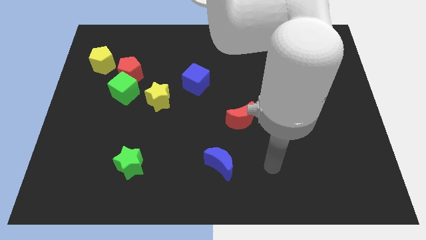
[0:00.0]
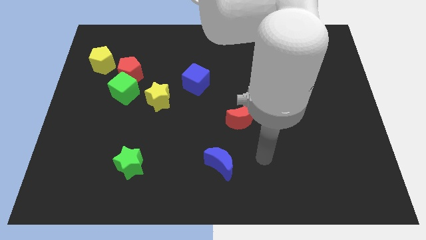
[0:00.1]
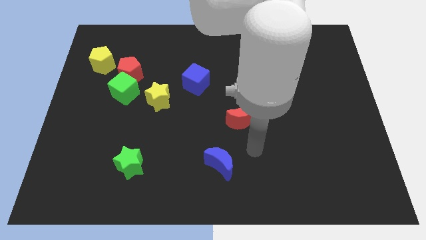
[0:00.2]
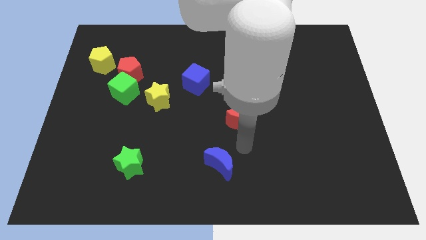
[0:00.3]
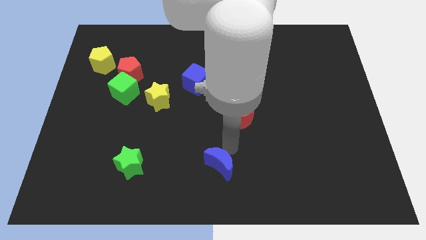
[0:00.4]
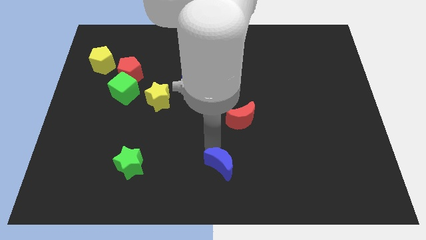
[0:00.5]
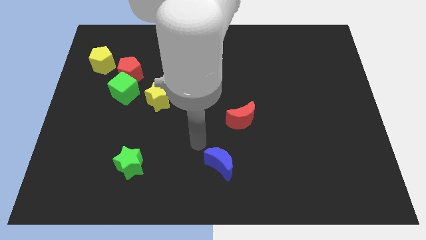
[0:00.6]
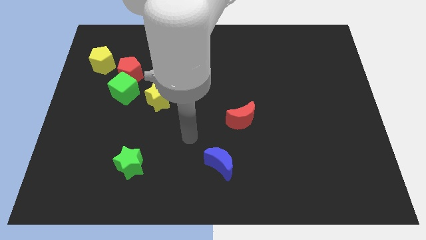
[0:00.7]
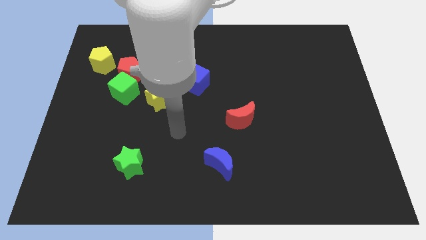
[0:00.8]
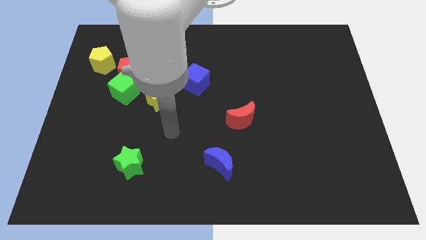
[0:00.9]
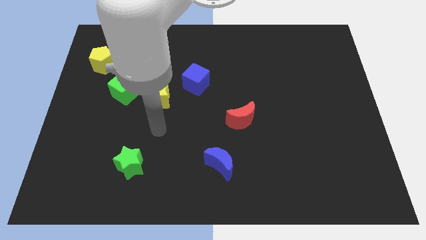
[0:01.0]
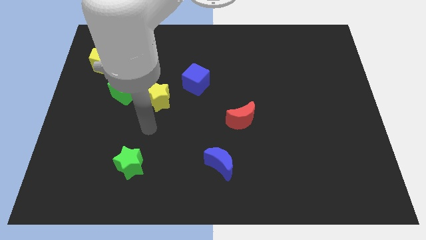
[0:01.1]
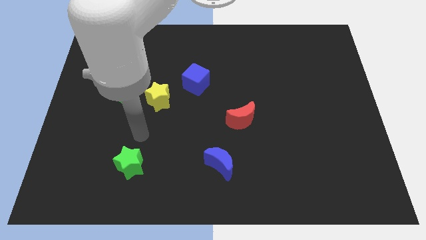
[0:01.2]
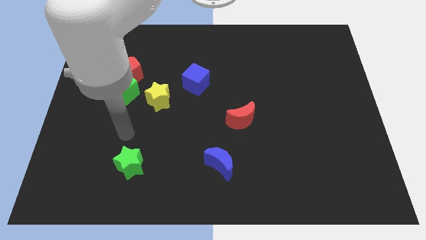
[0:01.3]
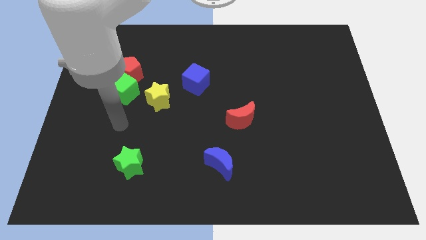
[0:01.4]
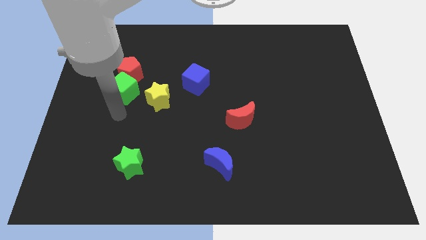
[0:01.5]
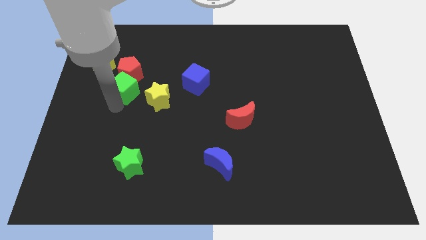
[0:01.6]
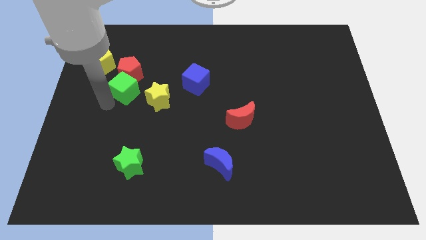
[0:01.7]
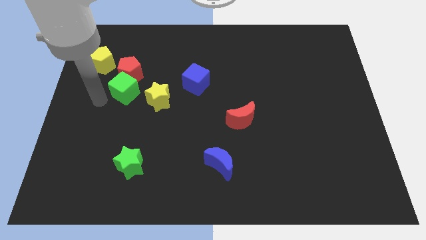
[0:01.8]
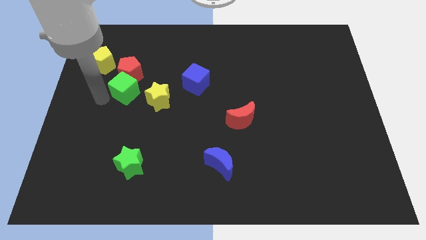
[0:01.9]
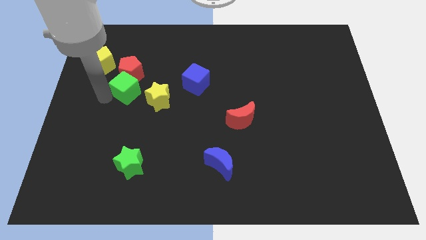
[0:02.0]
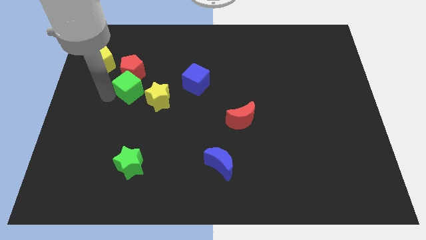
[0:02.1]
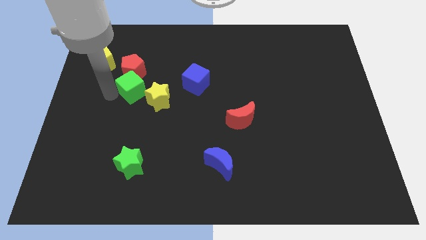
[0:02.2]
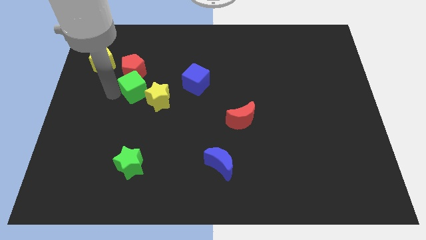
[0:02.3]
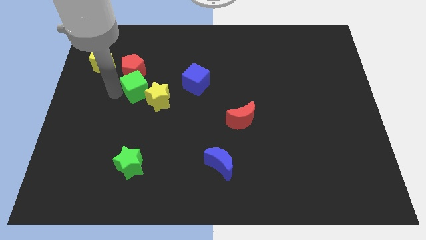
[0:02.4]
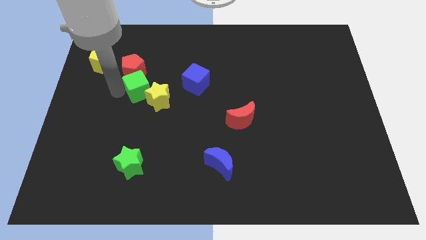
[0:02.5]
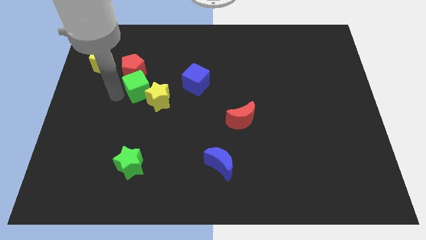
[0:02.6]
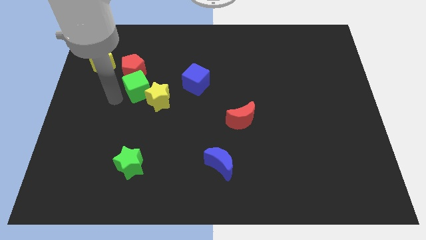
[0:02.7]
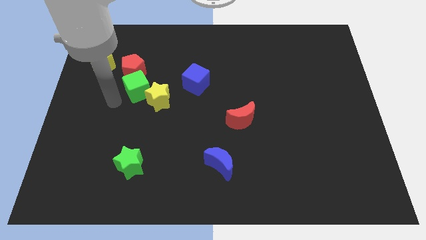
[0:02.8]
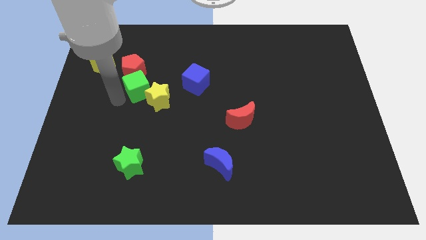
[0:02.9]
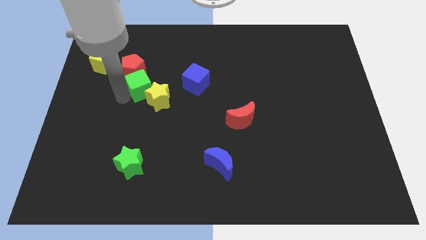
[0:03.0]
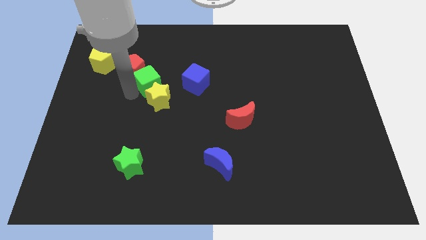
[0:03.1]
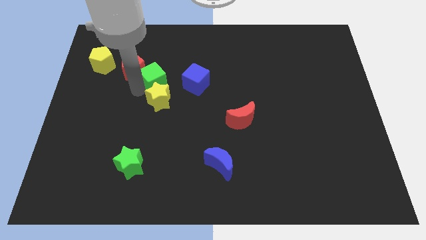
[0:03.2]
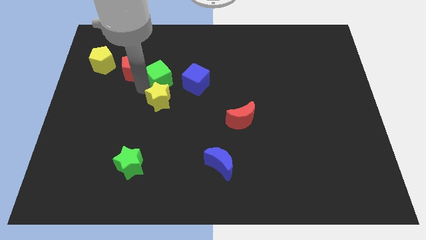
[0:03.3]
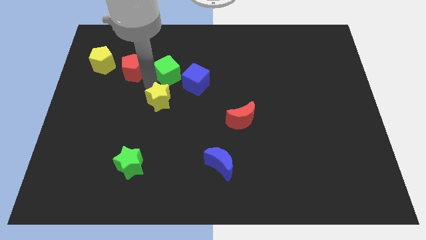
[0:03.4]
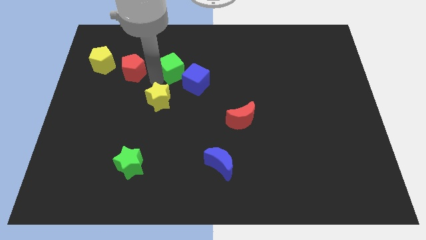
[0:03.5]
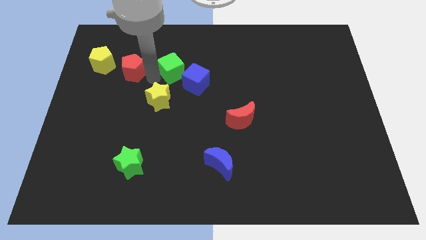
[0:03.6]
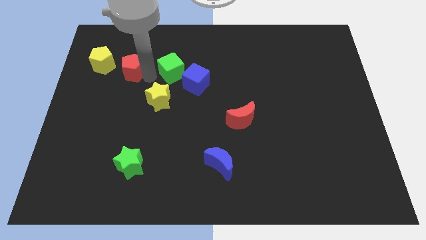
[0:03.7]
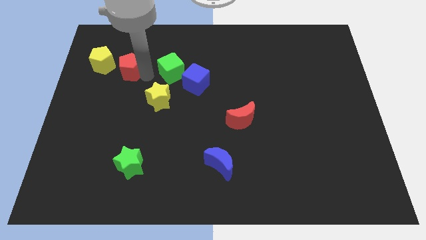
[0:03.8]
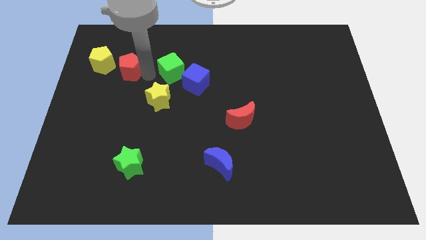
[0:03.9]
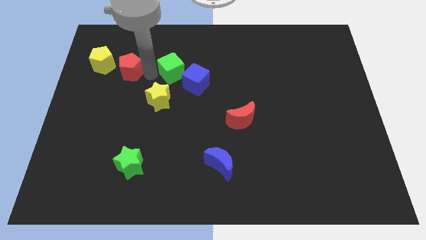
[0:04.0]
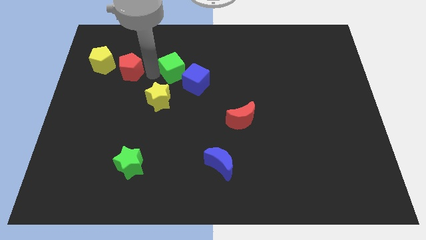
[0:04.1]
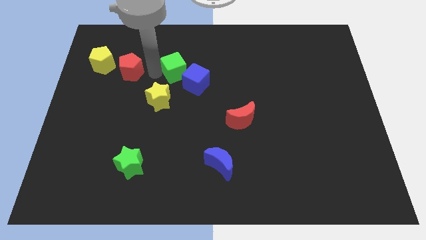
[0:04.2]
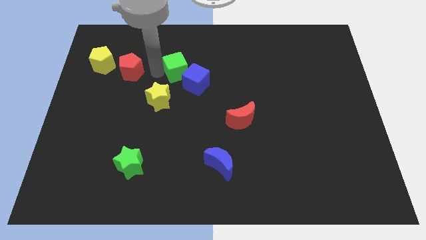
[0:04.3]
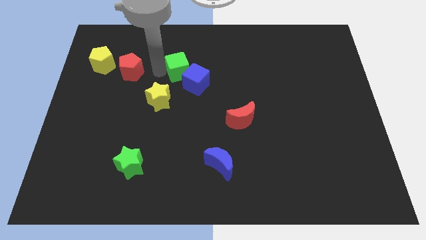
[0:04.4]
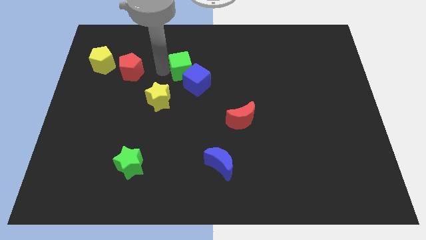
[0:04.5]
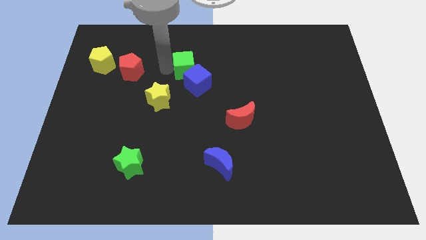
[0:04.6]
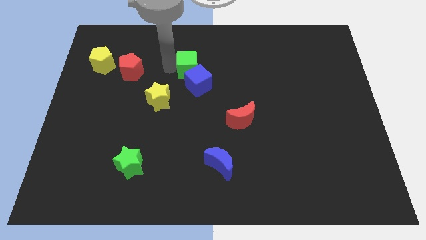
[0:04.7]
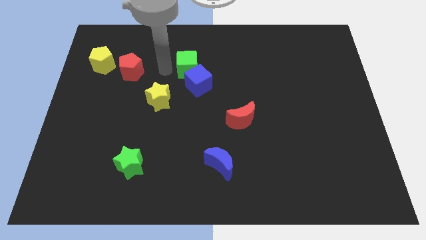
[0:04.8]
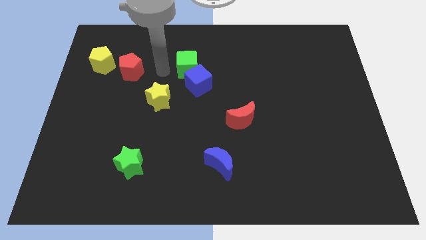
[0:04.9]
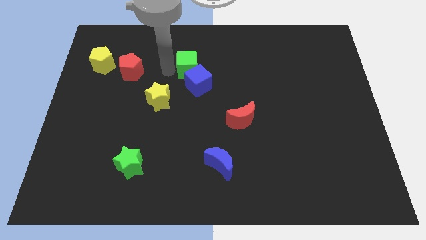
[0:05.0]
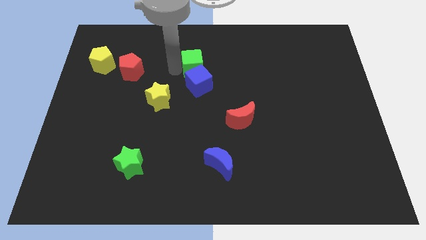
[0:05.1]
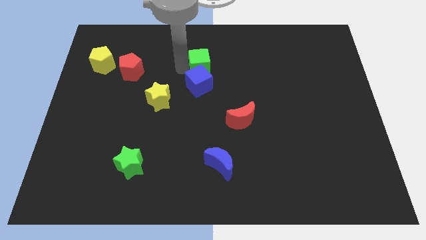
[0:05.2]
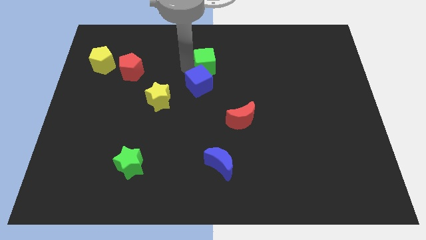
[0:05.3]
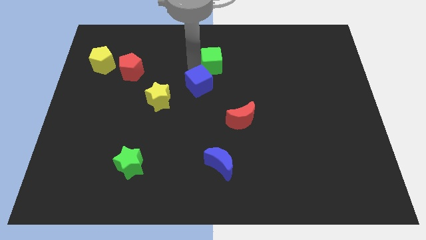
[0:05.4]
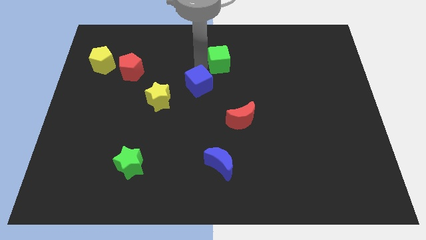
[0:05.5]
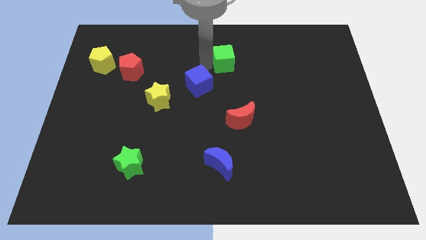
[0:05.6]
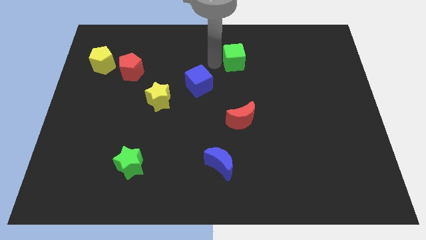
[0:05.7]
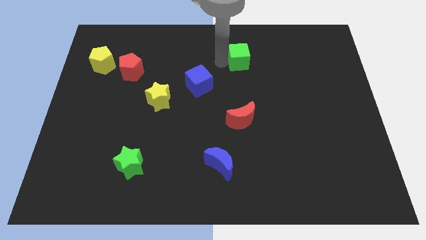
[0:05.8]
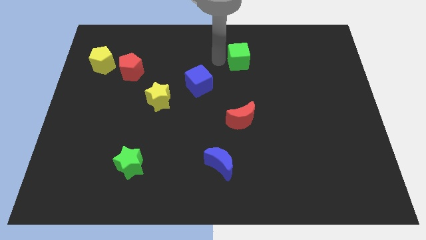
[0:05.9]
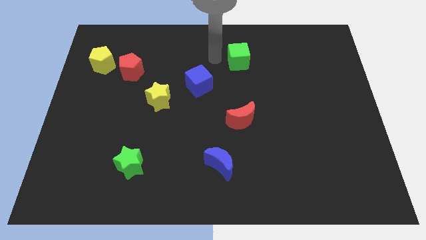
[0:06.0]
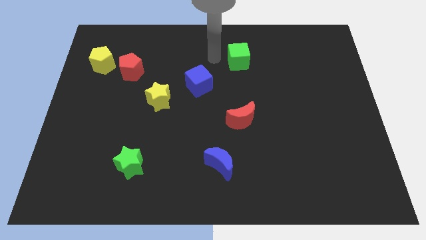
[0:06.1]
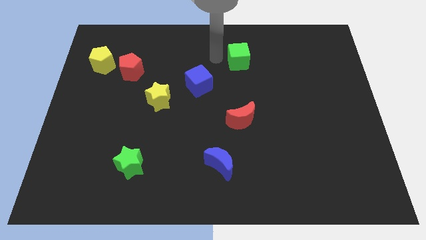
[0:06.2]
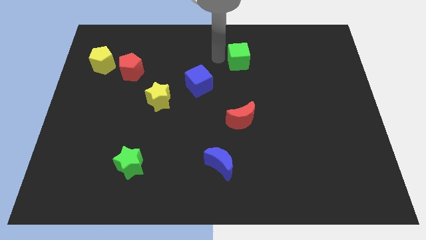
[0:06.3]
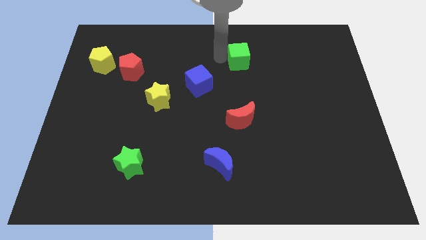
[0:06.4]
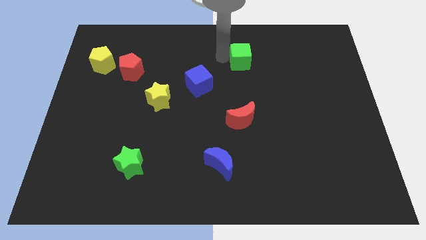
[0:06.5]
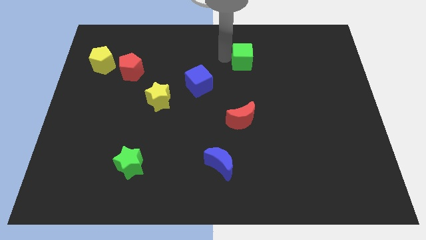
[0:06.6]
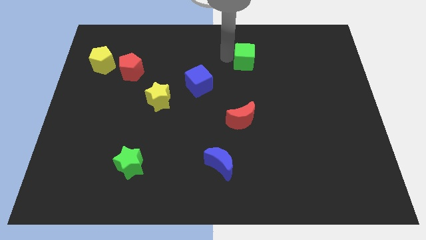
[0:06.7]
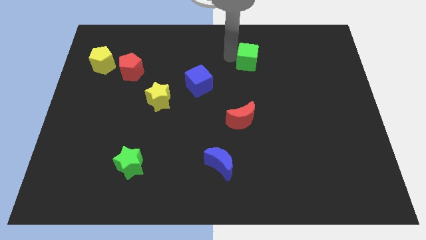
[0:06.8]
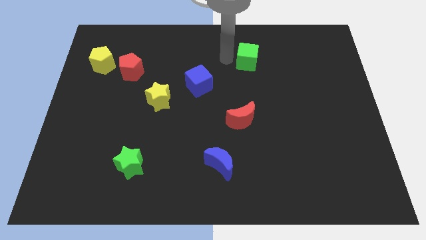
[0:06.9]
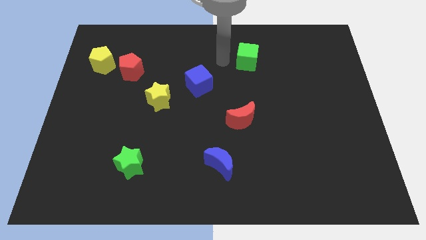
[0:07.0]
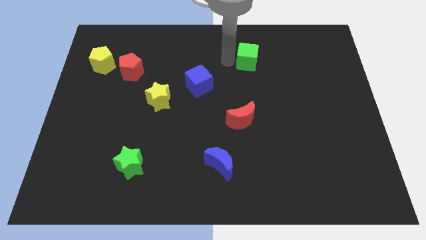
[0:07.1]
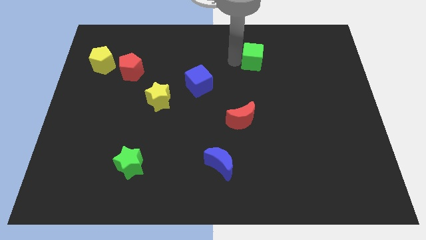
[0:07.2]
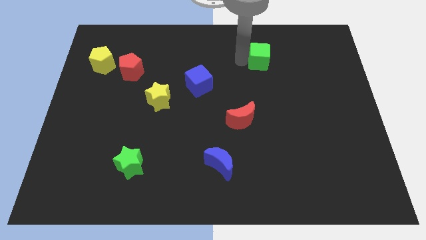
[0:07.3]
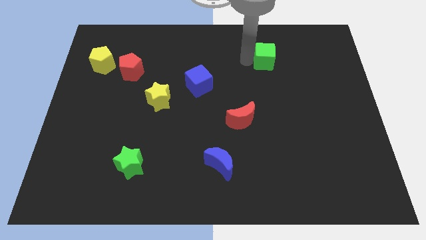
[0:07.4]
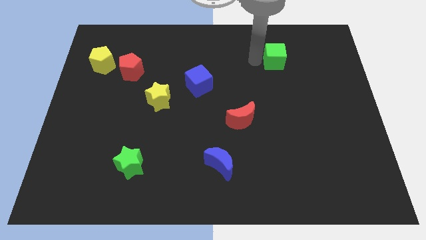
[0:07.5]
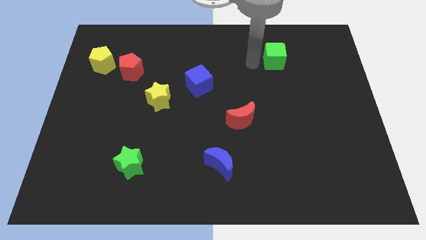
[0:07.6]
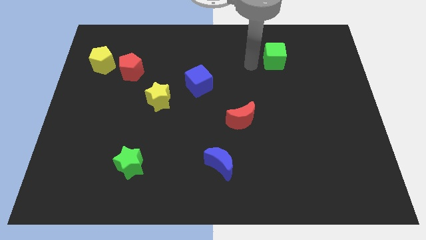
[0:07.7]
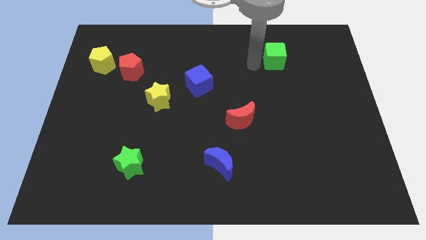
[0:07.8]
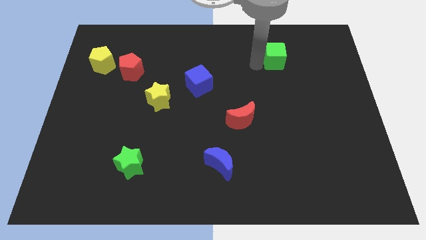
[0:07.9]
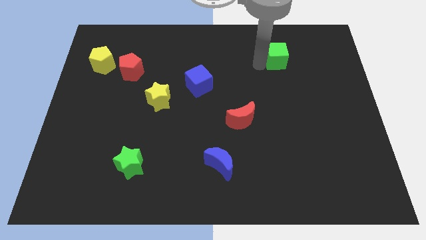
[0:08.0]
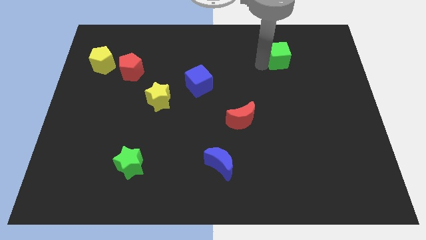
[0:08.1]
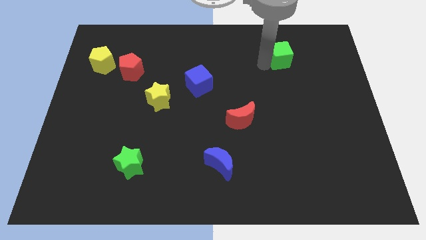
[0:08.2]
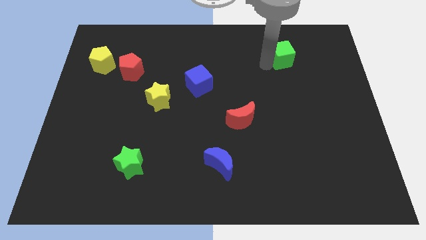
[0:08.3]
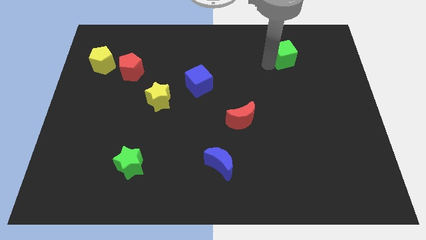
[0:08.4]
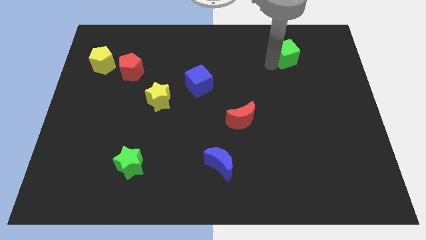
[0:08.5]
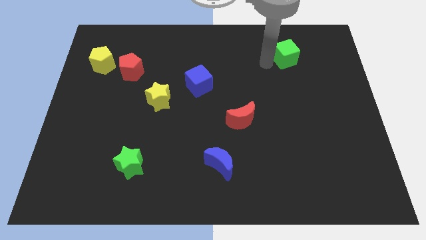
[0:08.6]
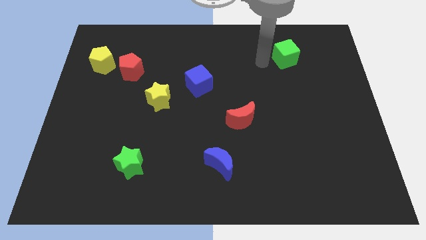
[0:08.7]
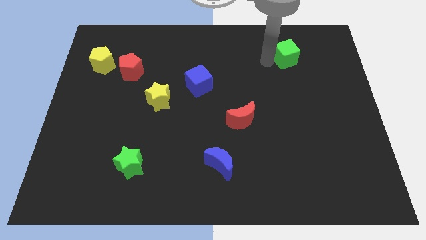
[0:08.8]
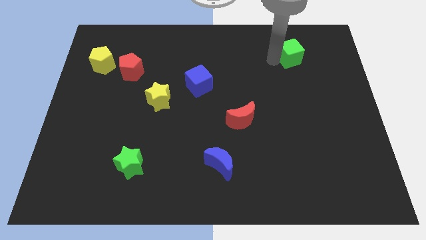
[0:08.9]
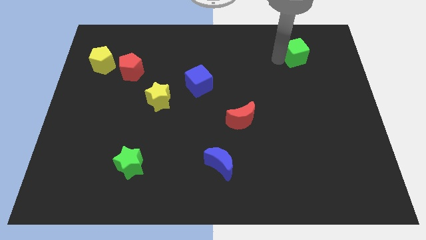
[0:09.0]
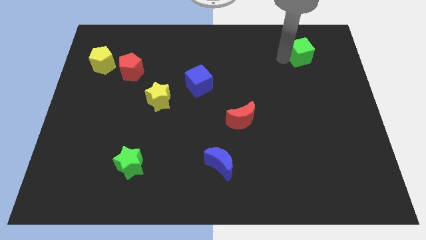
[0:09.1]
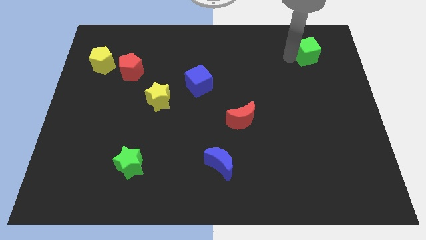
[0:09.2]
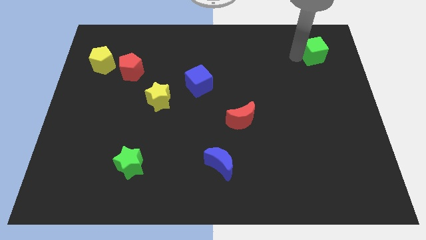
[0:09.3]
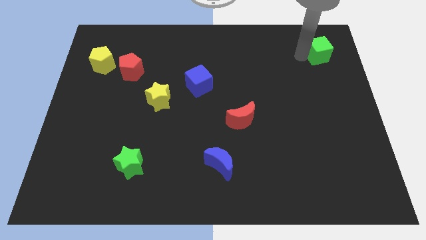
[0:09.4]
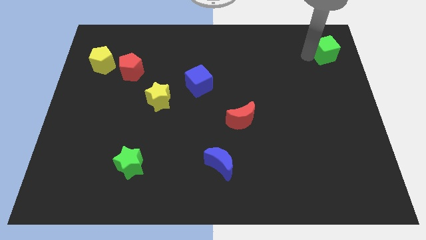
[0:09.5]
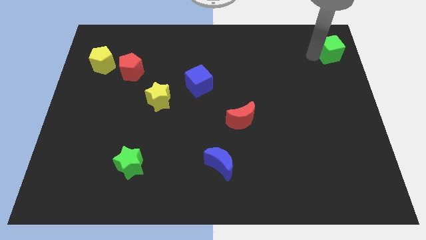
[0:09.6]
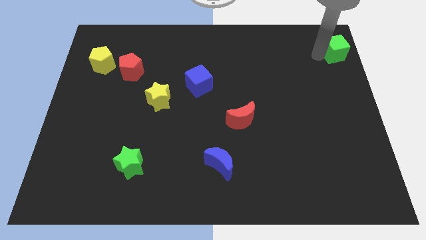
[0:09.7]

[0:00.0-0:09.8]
put the green cube to the top right
